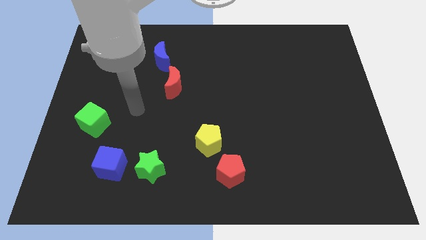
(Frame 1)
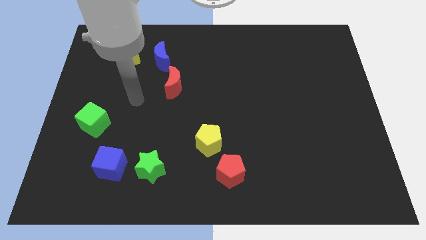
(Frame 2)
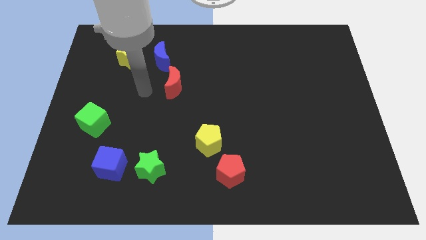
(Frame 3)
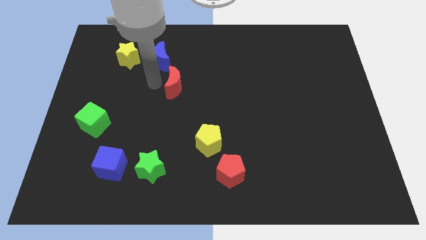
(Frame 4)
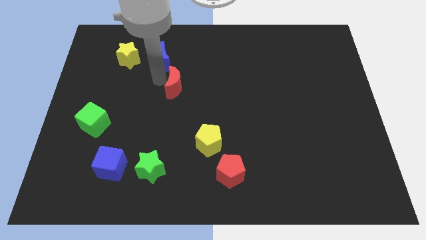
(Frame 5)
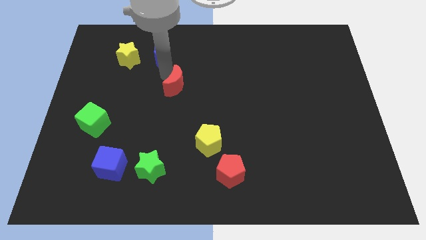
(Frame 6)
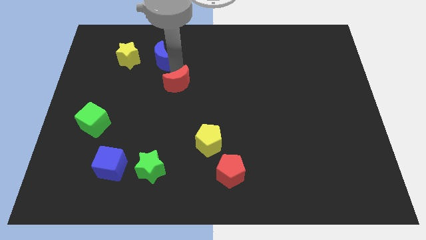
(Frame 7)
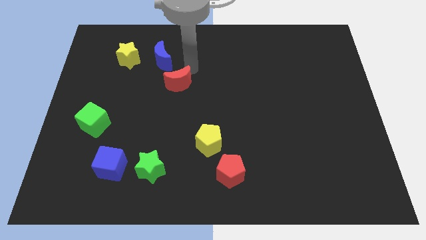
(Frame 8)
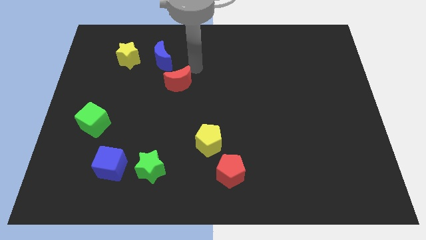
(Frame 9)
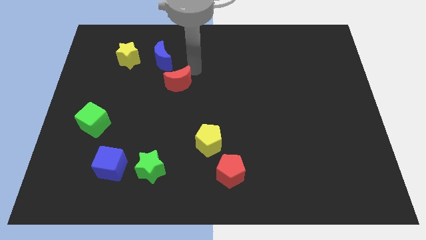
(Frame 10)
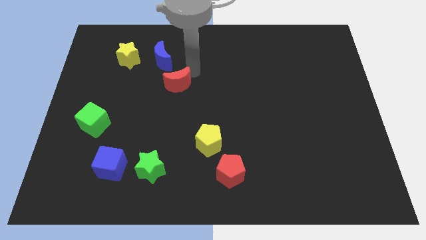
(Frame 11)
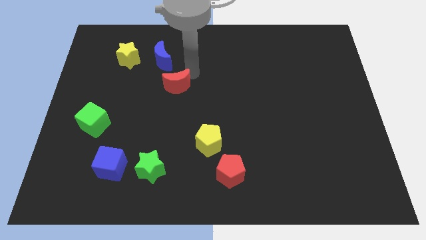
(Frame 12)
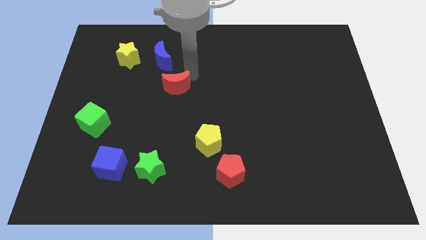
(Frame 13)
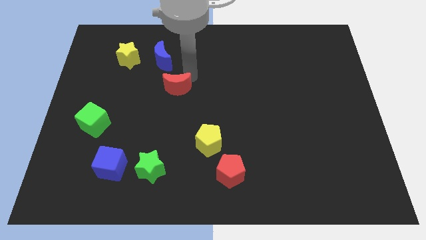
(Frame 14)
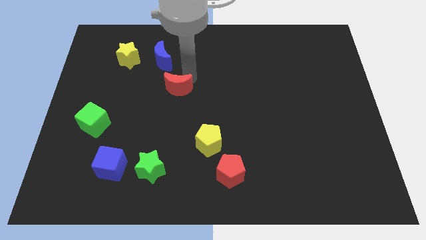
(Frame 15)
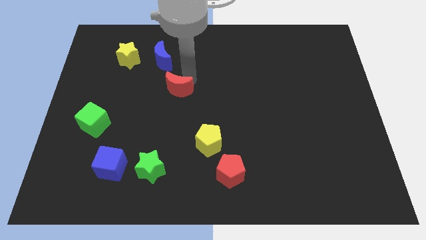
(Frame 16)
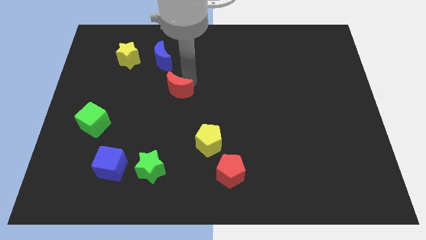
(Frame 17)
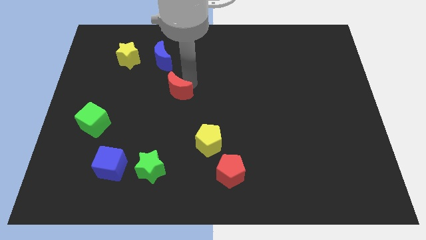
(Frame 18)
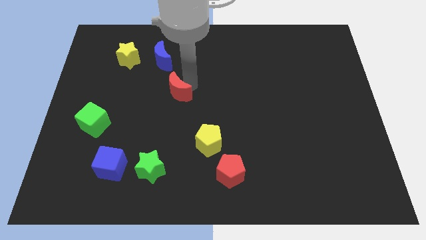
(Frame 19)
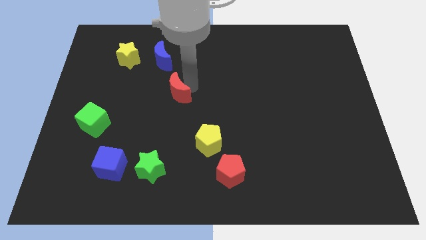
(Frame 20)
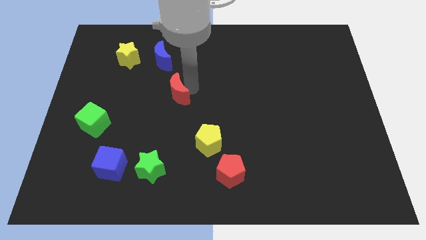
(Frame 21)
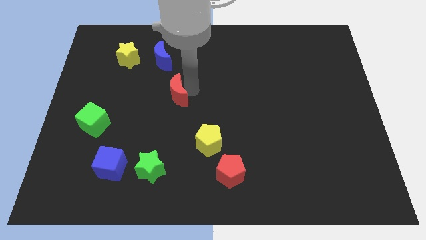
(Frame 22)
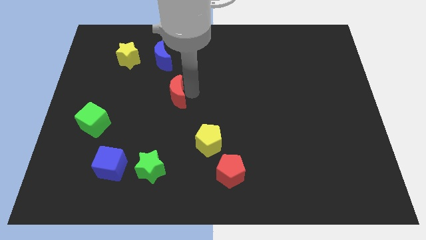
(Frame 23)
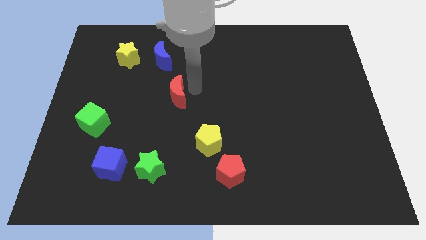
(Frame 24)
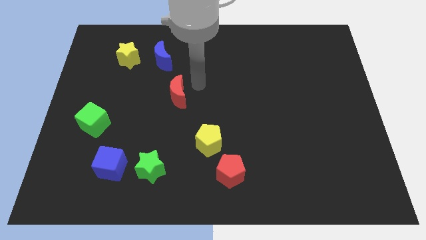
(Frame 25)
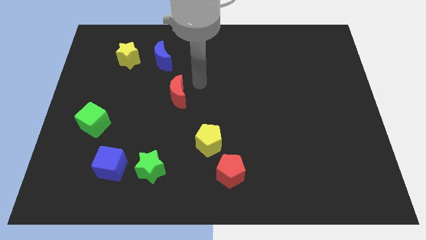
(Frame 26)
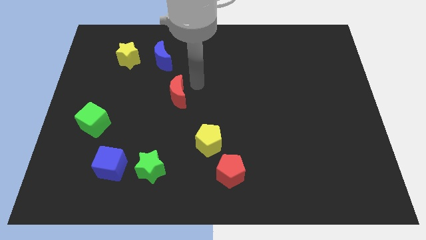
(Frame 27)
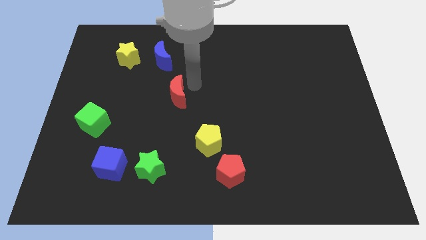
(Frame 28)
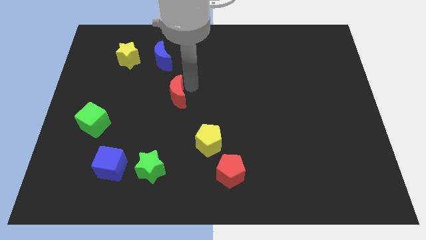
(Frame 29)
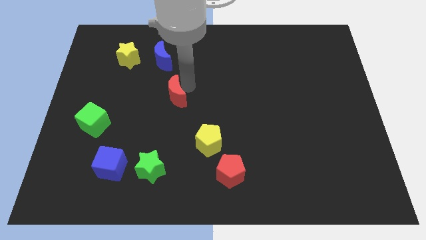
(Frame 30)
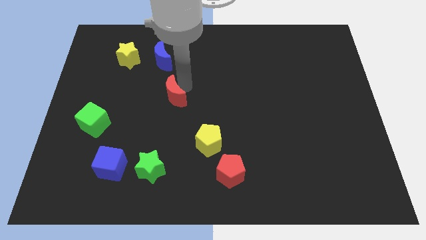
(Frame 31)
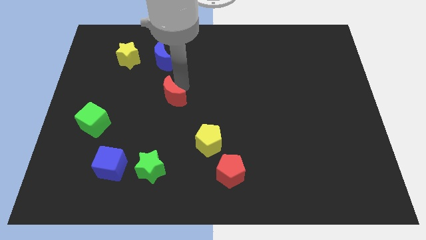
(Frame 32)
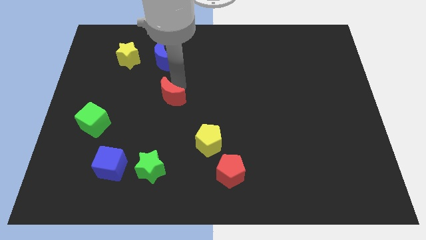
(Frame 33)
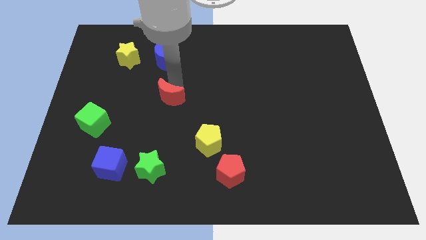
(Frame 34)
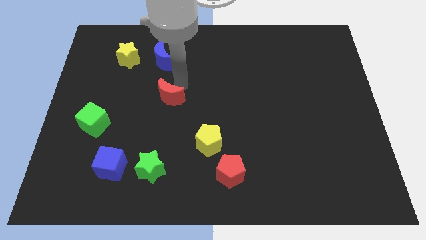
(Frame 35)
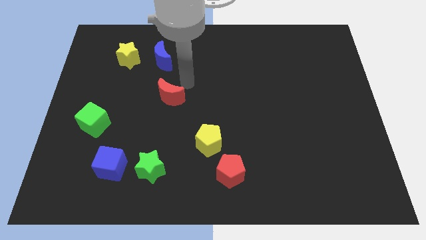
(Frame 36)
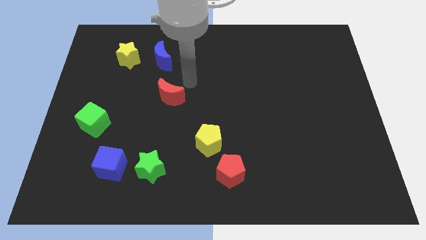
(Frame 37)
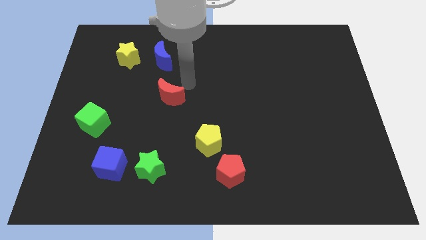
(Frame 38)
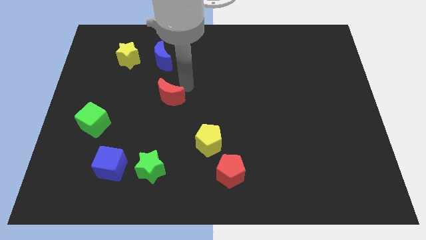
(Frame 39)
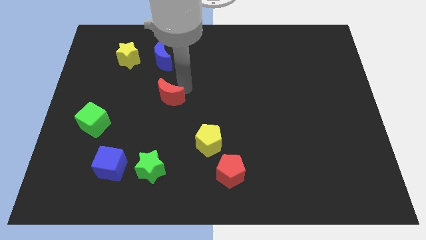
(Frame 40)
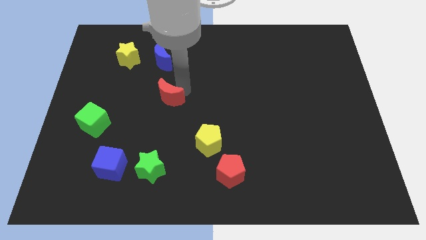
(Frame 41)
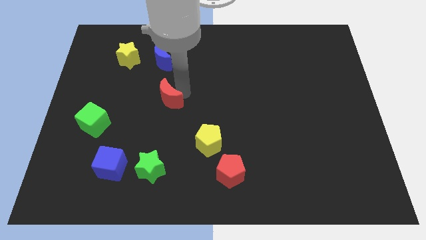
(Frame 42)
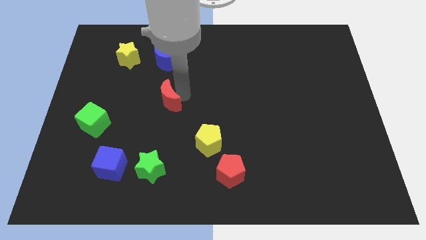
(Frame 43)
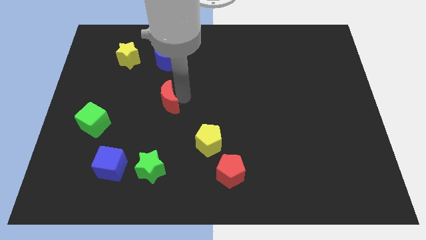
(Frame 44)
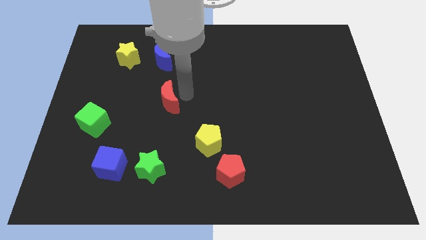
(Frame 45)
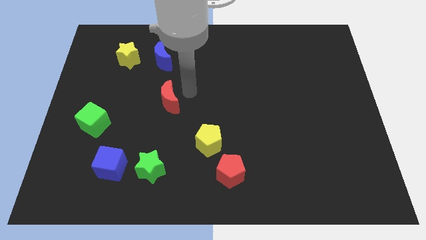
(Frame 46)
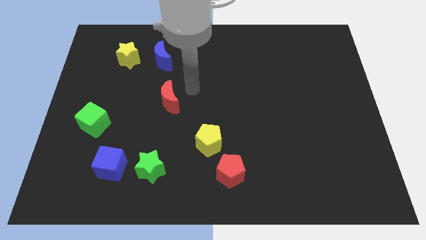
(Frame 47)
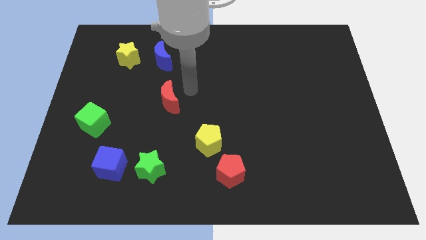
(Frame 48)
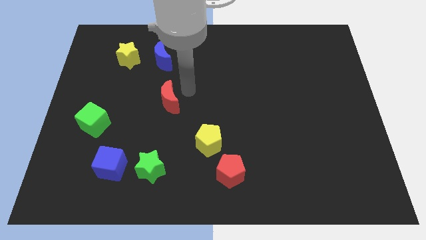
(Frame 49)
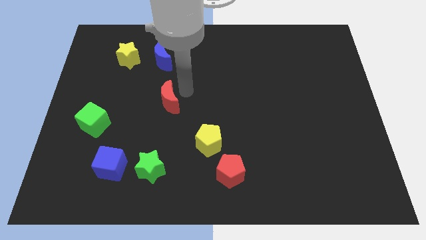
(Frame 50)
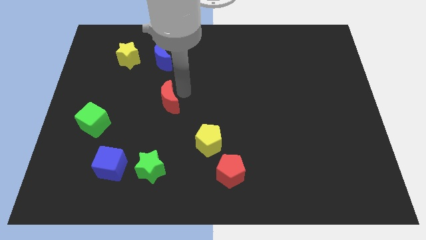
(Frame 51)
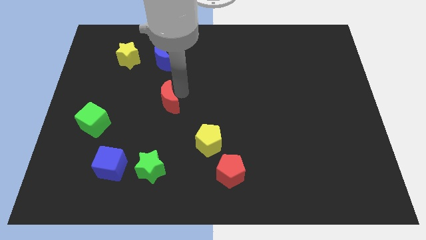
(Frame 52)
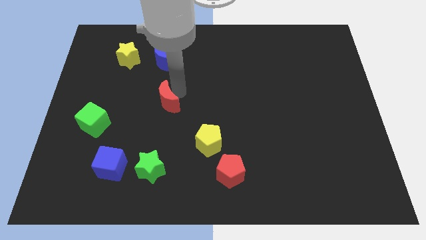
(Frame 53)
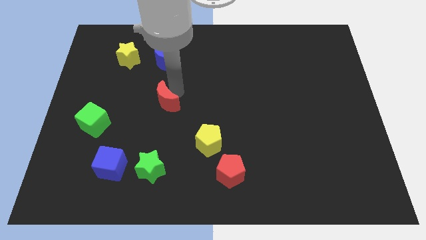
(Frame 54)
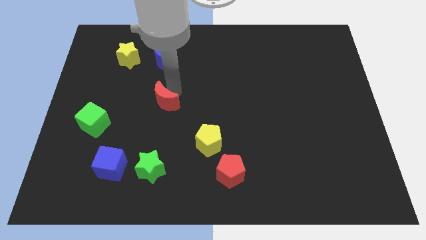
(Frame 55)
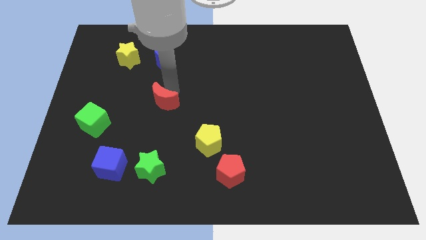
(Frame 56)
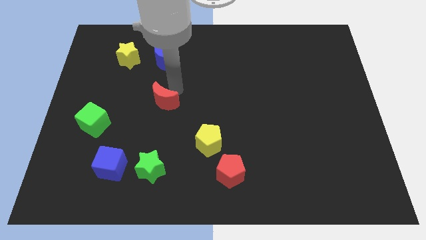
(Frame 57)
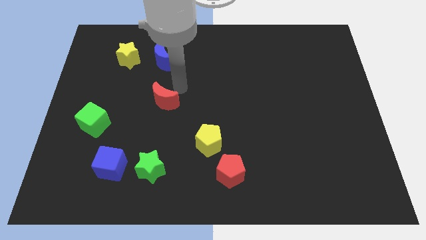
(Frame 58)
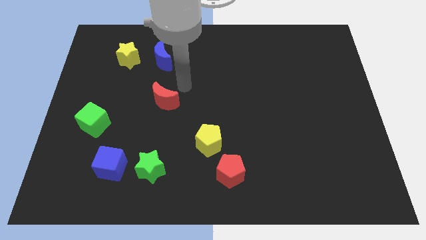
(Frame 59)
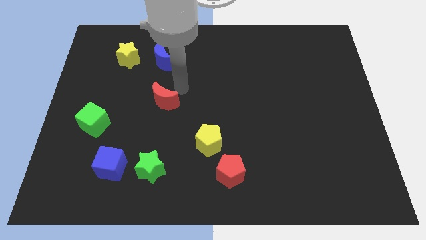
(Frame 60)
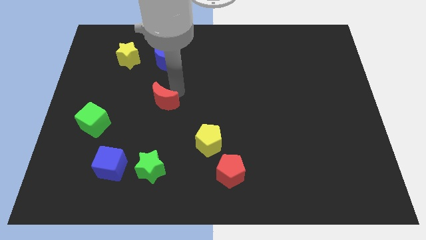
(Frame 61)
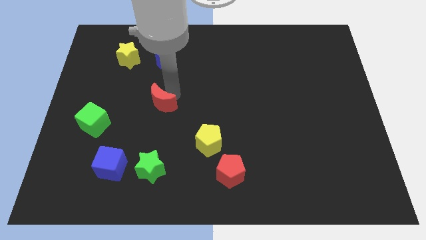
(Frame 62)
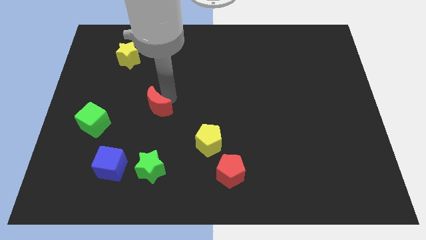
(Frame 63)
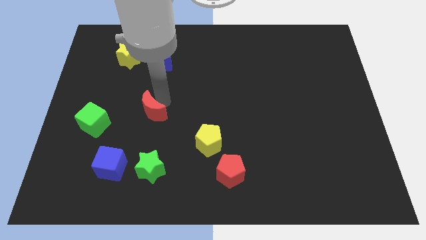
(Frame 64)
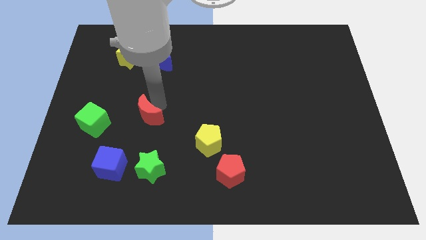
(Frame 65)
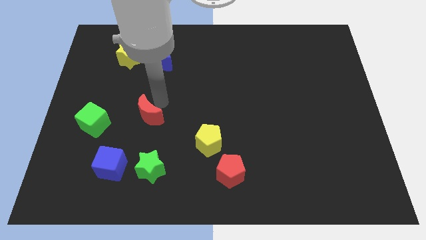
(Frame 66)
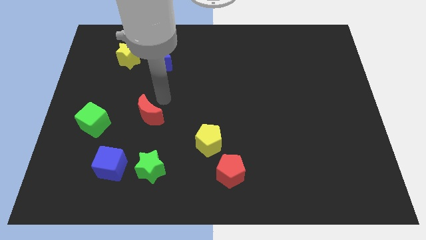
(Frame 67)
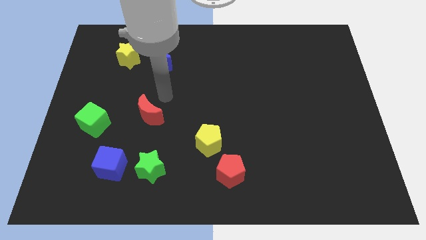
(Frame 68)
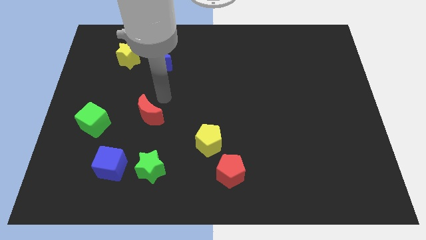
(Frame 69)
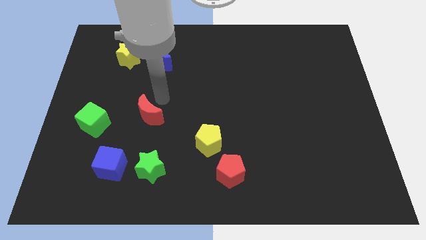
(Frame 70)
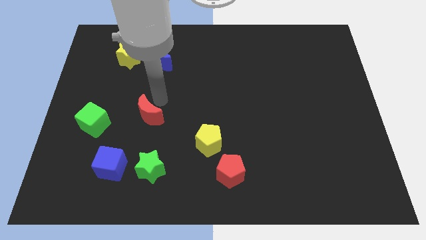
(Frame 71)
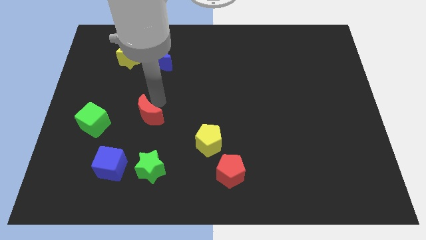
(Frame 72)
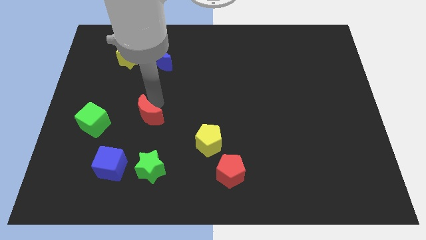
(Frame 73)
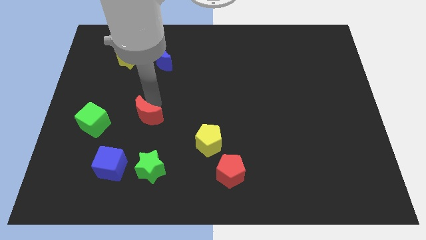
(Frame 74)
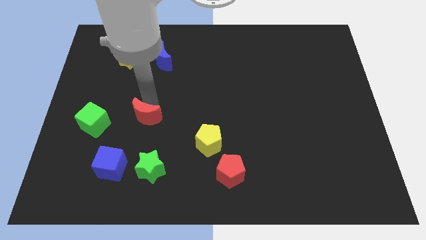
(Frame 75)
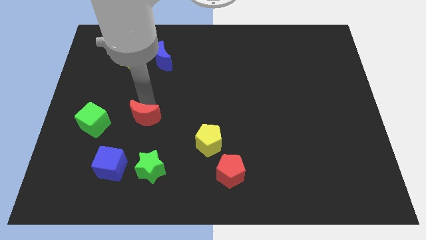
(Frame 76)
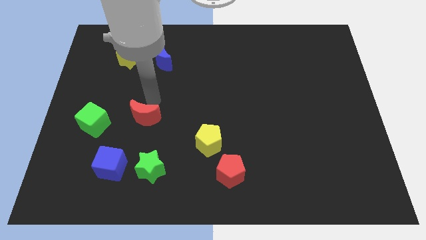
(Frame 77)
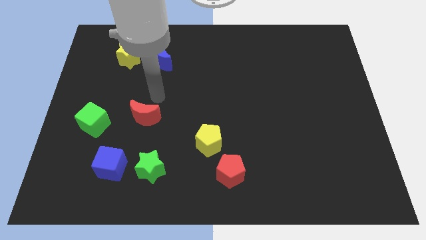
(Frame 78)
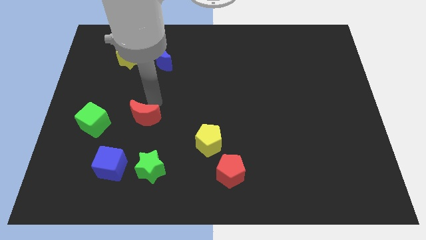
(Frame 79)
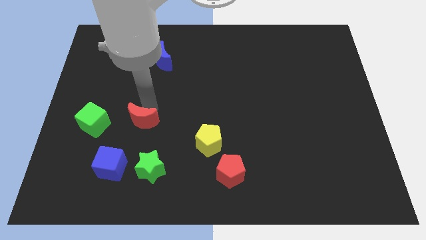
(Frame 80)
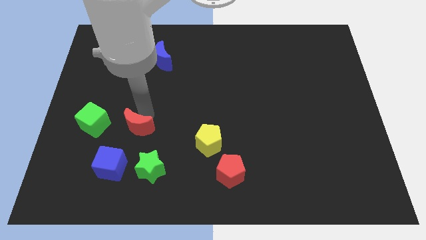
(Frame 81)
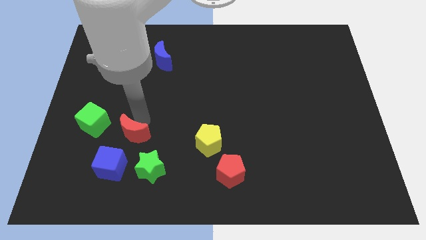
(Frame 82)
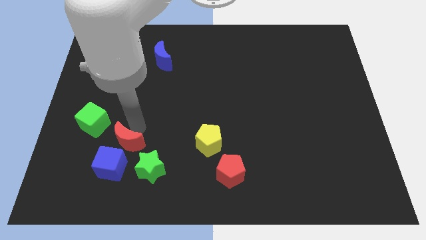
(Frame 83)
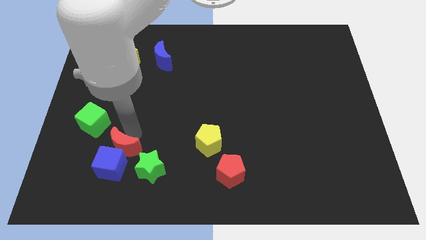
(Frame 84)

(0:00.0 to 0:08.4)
move the red moon towards the blue cube
